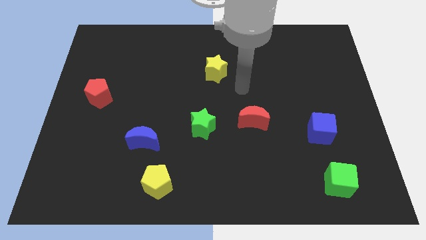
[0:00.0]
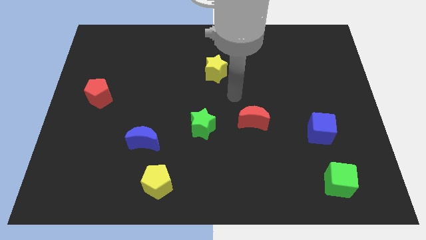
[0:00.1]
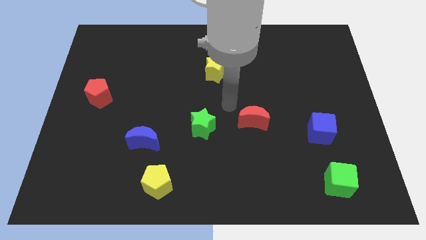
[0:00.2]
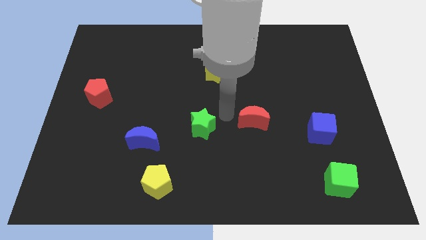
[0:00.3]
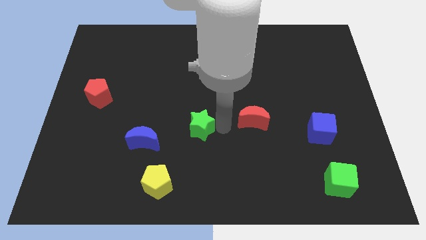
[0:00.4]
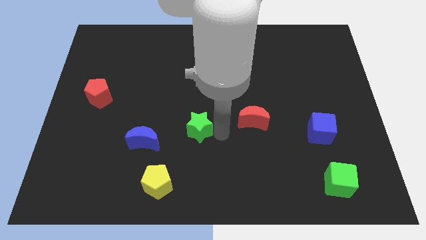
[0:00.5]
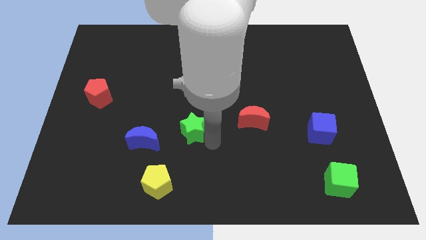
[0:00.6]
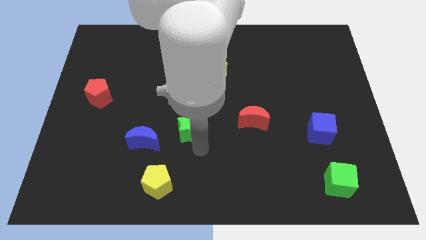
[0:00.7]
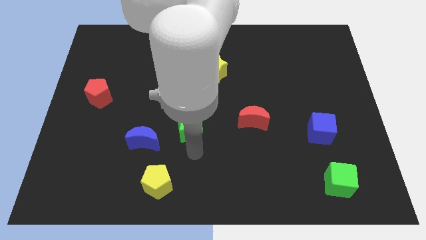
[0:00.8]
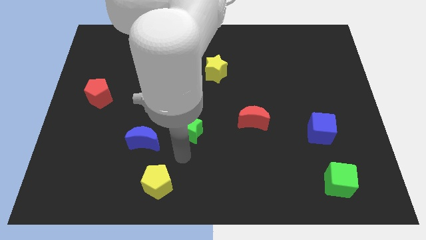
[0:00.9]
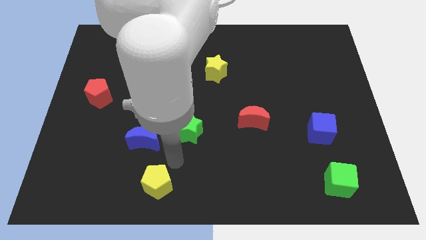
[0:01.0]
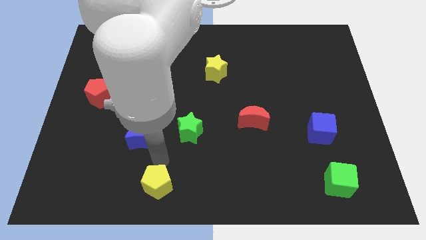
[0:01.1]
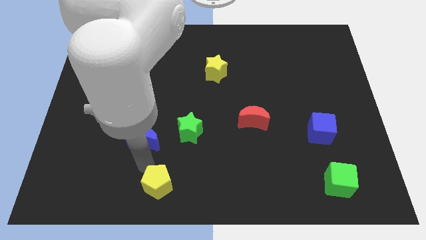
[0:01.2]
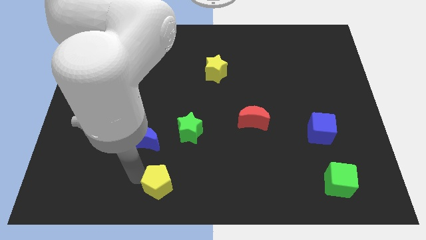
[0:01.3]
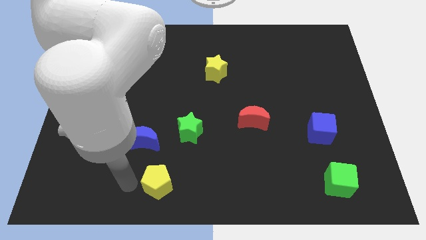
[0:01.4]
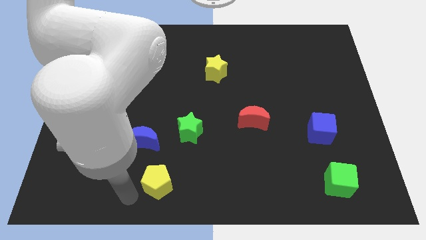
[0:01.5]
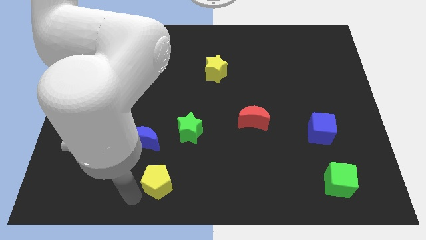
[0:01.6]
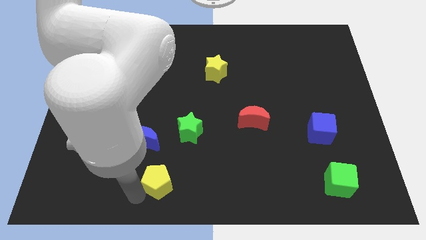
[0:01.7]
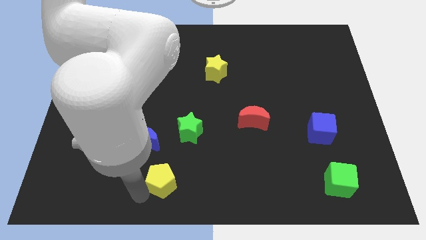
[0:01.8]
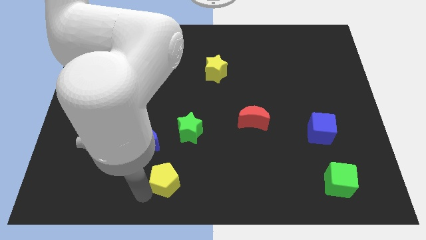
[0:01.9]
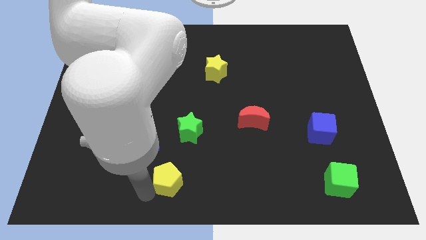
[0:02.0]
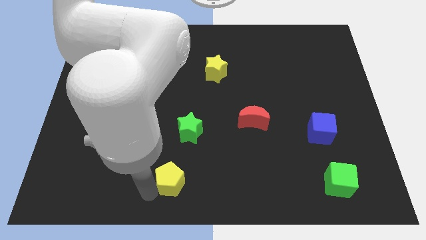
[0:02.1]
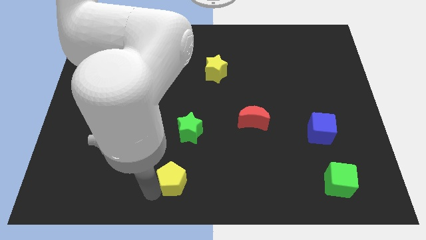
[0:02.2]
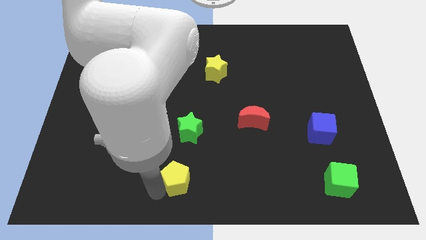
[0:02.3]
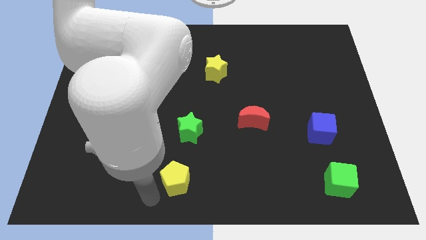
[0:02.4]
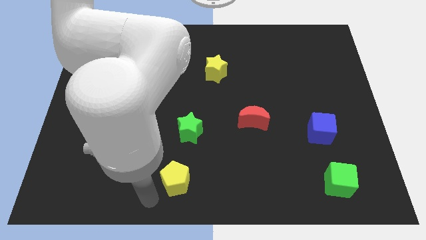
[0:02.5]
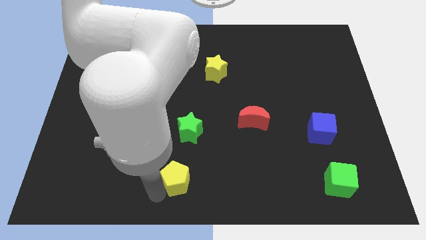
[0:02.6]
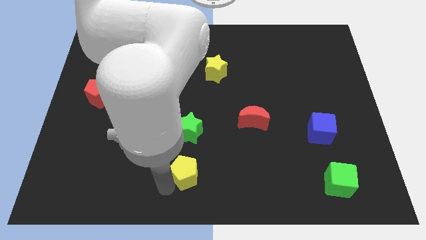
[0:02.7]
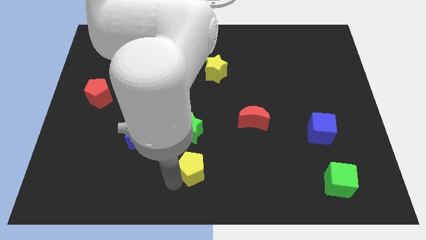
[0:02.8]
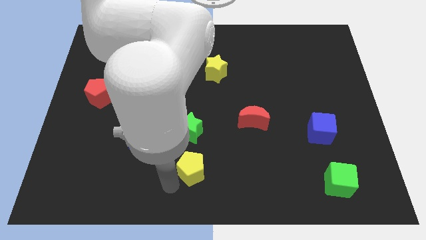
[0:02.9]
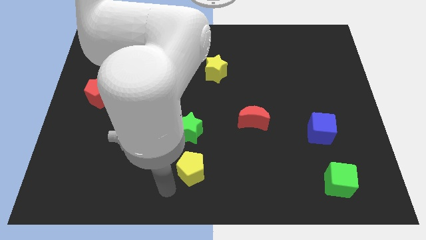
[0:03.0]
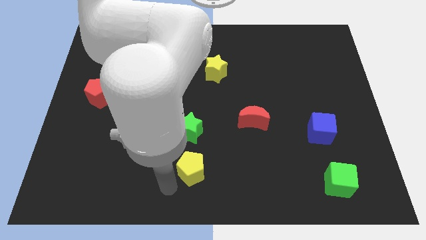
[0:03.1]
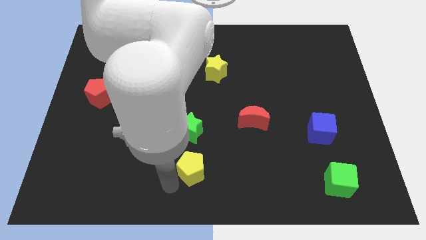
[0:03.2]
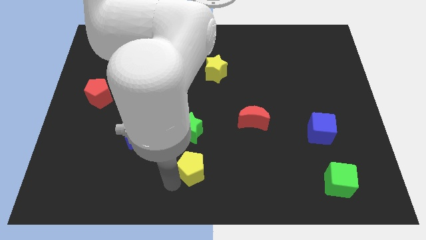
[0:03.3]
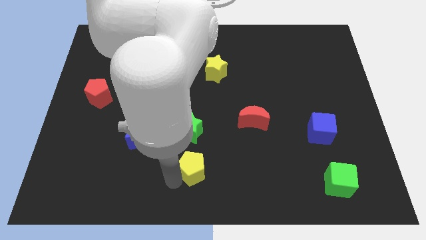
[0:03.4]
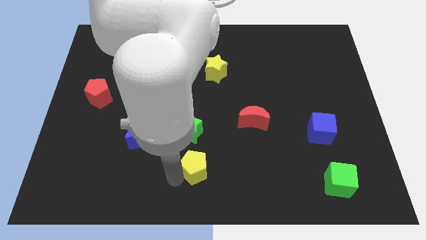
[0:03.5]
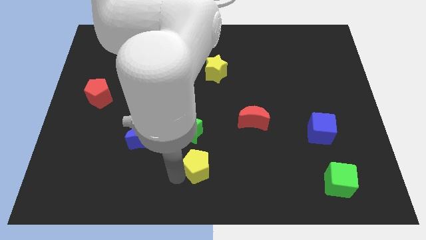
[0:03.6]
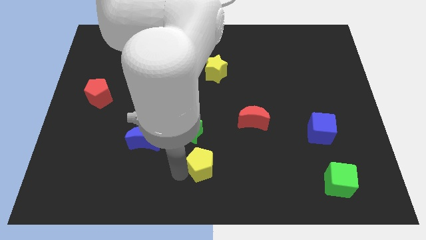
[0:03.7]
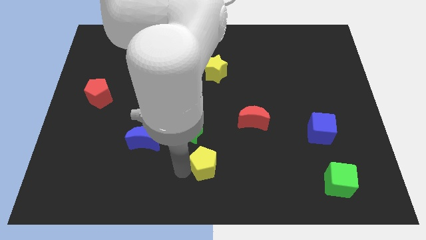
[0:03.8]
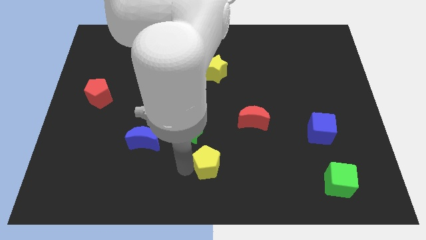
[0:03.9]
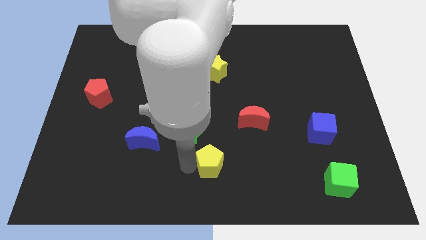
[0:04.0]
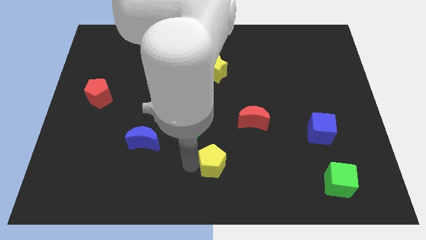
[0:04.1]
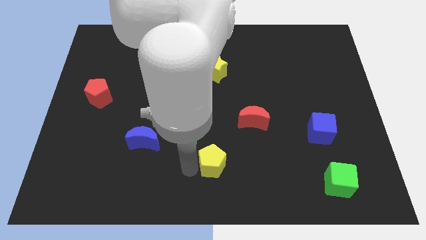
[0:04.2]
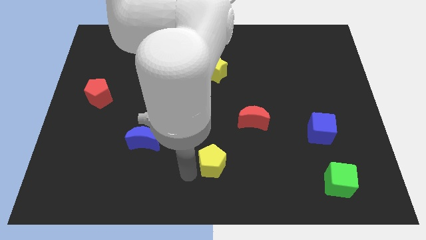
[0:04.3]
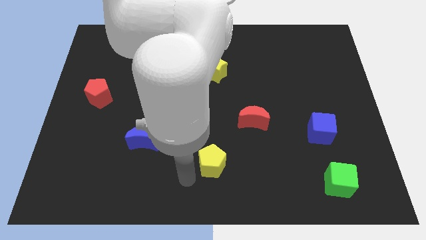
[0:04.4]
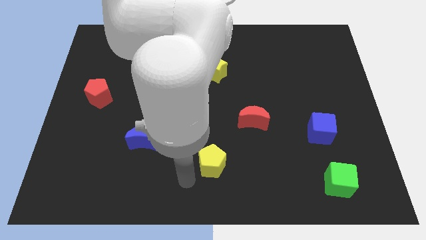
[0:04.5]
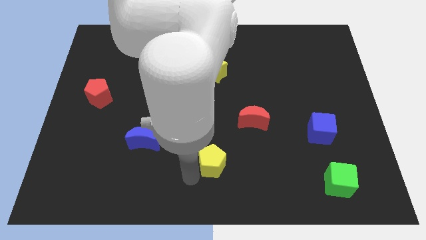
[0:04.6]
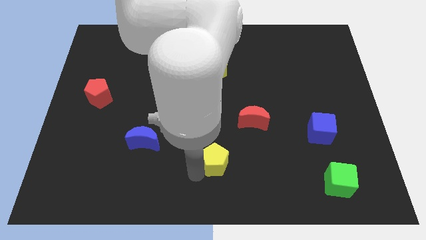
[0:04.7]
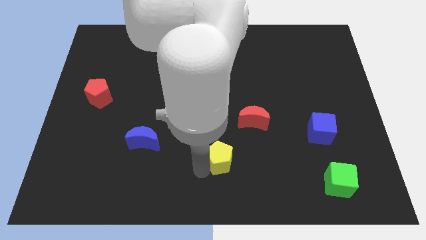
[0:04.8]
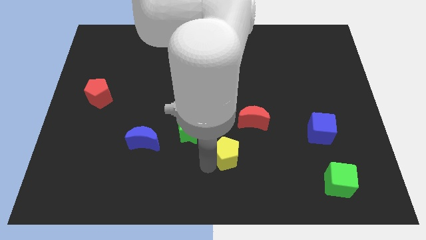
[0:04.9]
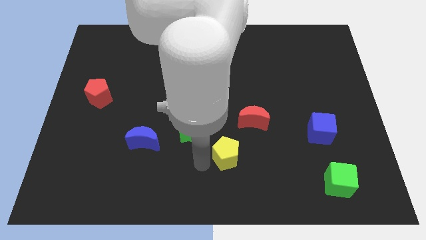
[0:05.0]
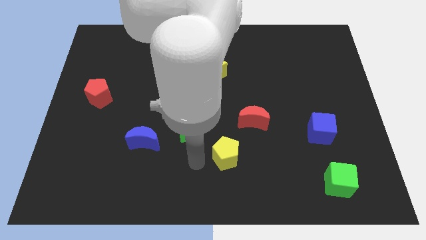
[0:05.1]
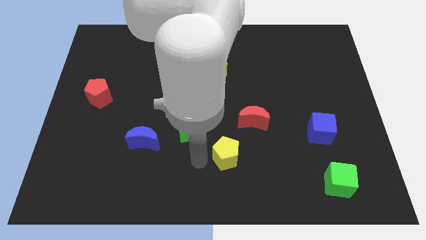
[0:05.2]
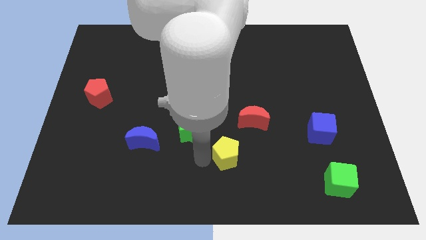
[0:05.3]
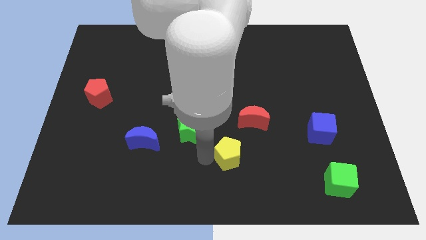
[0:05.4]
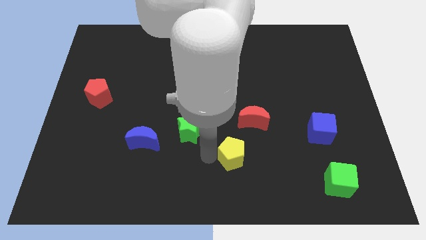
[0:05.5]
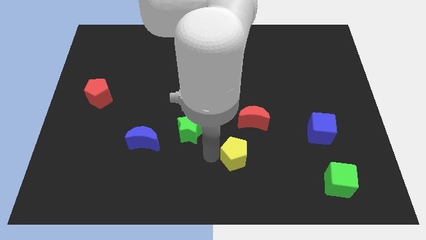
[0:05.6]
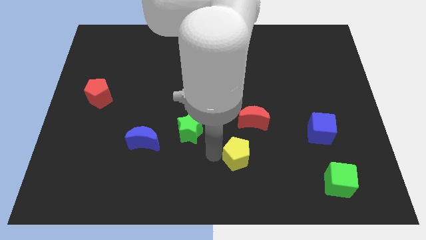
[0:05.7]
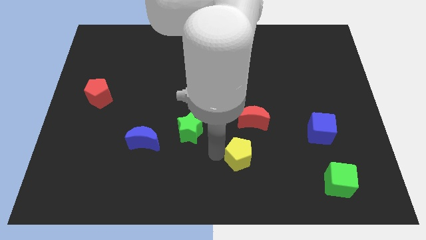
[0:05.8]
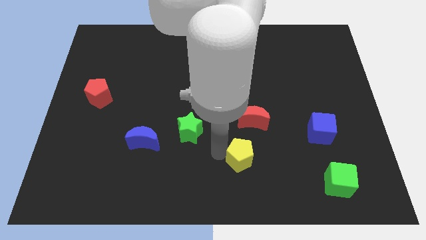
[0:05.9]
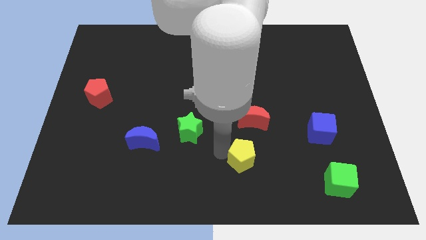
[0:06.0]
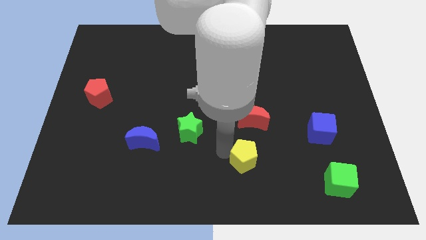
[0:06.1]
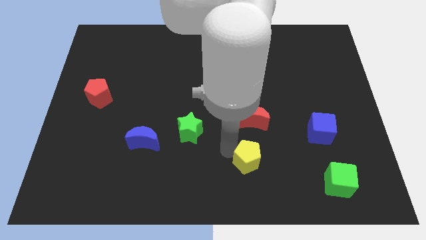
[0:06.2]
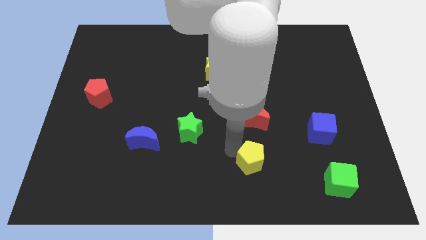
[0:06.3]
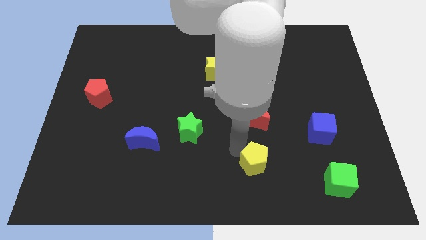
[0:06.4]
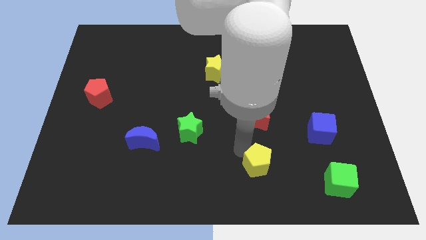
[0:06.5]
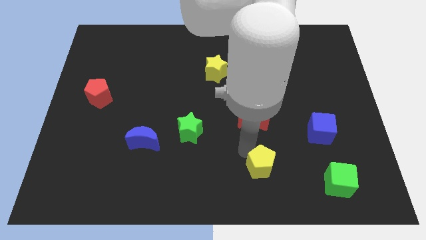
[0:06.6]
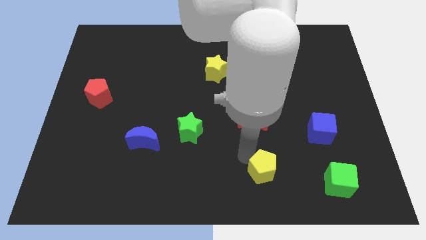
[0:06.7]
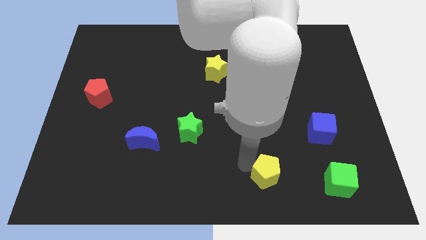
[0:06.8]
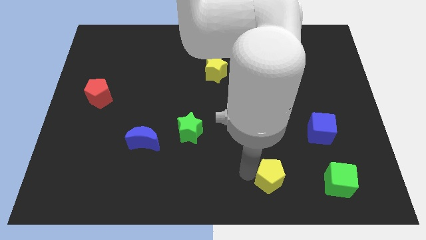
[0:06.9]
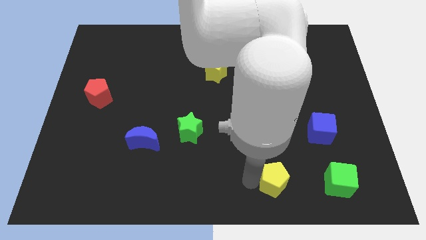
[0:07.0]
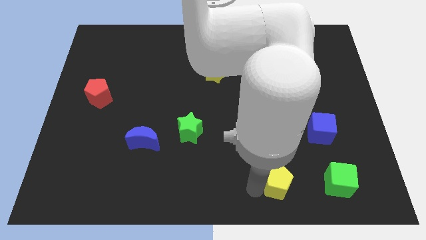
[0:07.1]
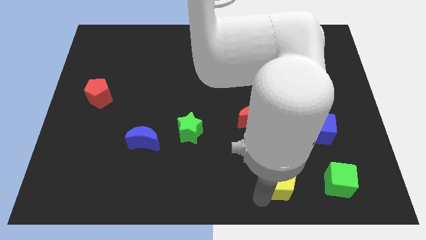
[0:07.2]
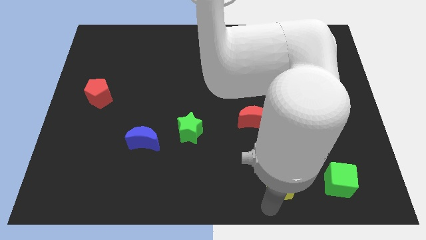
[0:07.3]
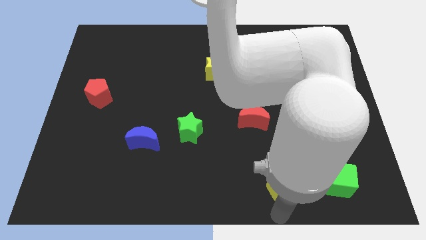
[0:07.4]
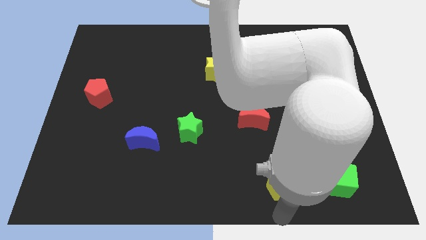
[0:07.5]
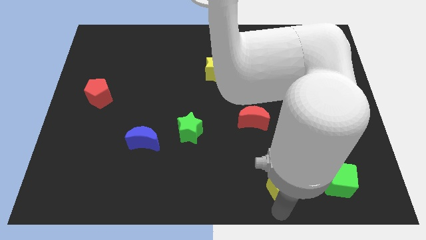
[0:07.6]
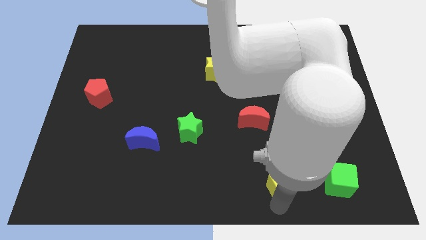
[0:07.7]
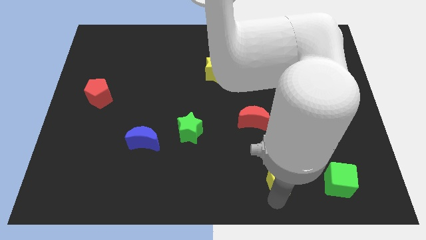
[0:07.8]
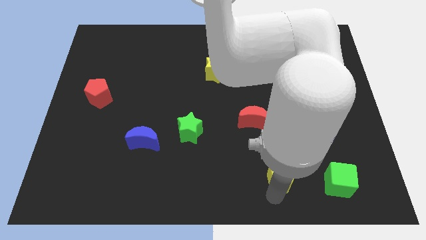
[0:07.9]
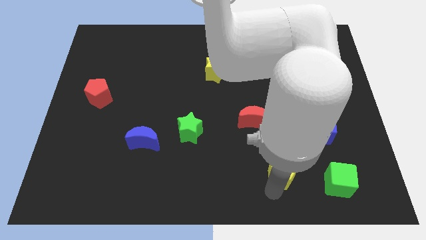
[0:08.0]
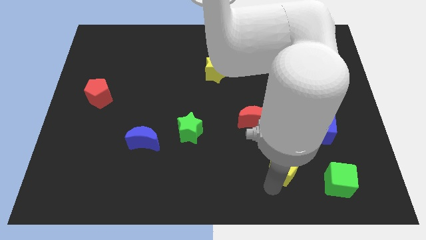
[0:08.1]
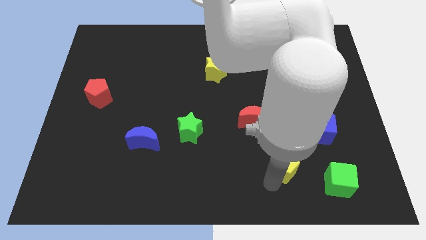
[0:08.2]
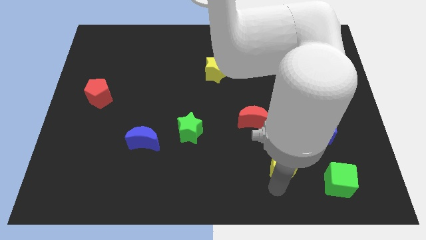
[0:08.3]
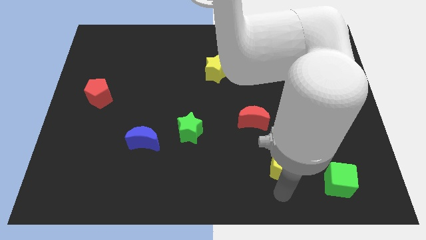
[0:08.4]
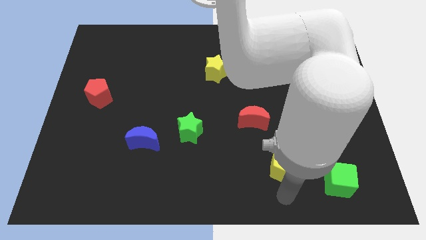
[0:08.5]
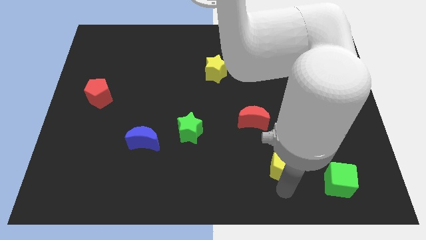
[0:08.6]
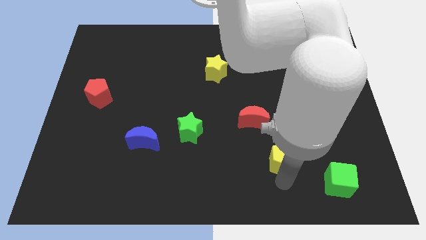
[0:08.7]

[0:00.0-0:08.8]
slide the yellow pentagon to the bottom right side of the red moon
